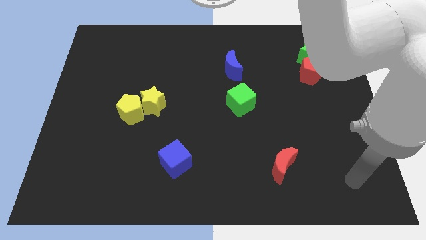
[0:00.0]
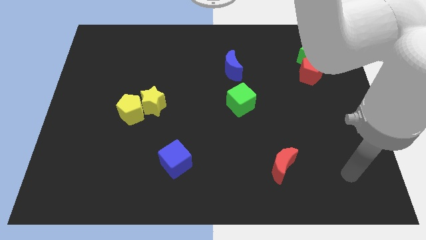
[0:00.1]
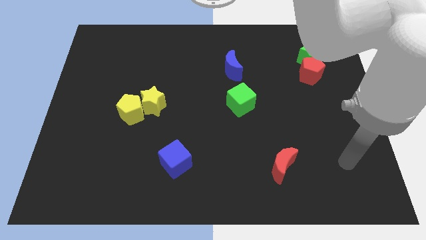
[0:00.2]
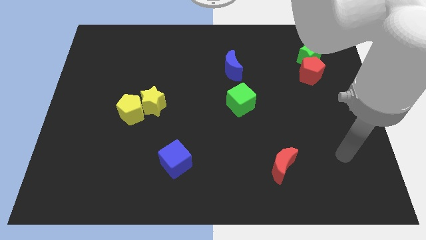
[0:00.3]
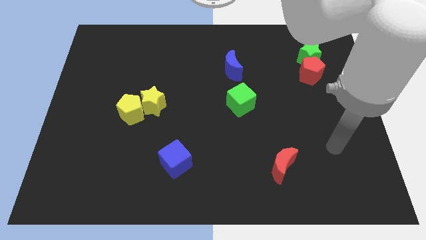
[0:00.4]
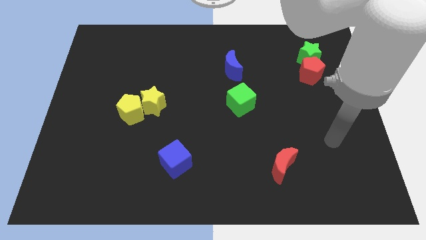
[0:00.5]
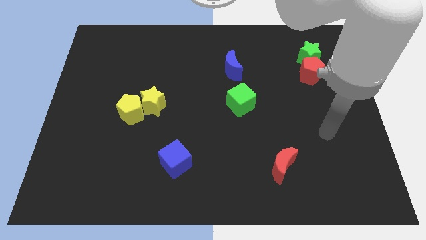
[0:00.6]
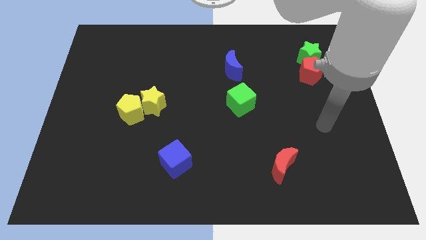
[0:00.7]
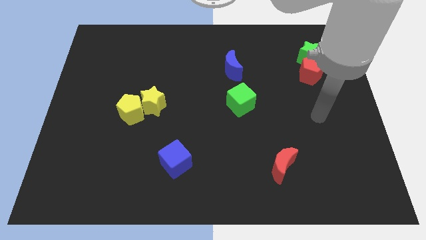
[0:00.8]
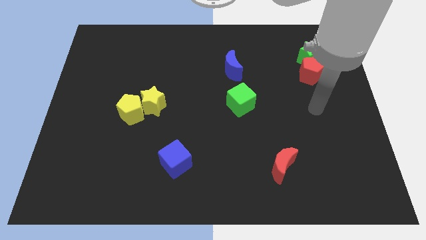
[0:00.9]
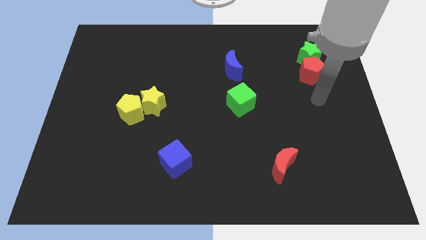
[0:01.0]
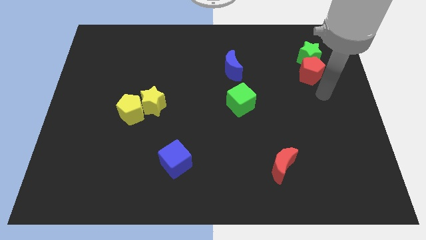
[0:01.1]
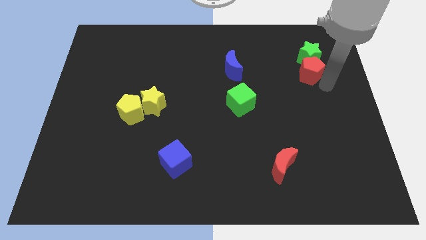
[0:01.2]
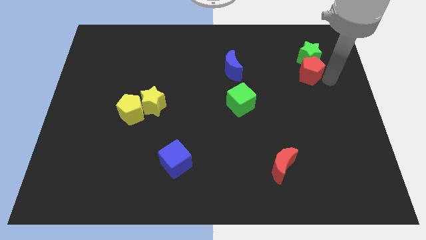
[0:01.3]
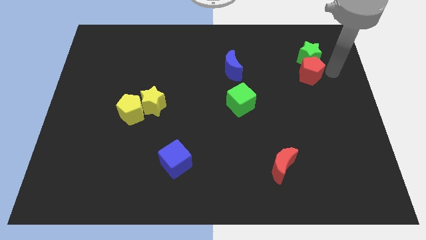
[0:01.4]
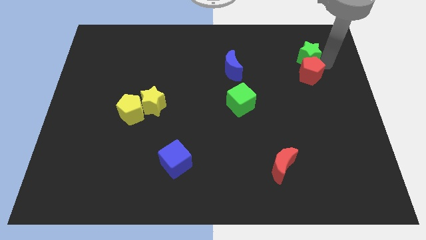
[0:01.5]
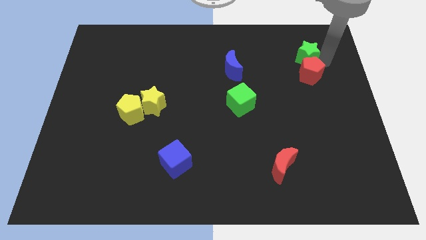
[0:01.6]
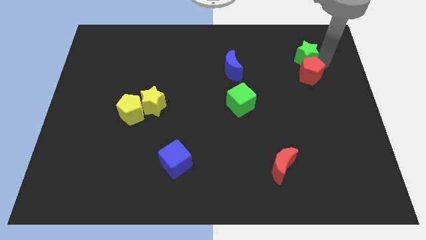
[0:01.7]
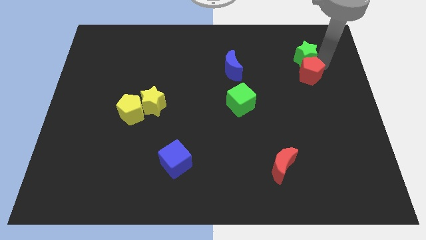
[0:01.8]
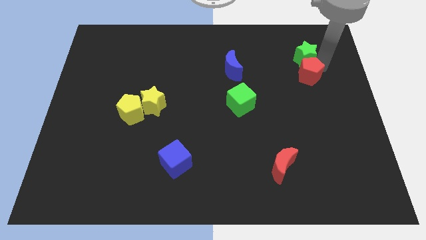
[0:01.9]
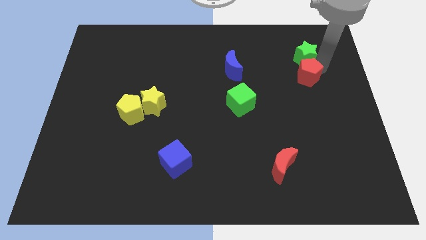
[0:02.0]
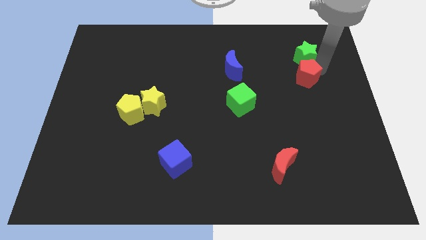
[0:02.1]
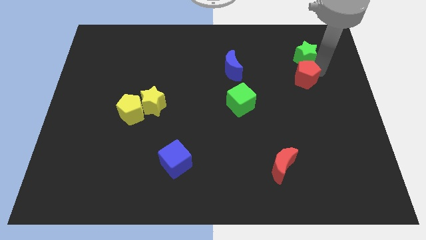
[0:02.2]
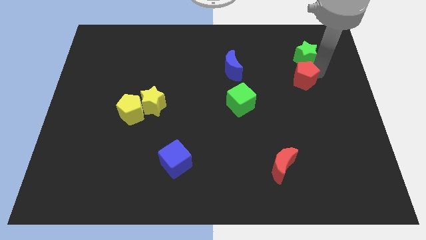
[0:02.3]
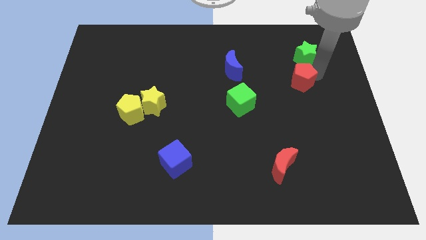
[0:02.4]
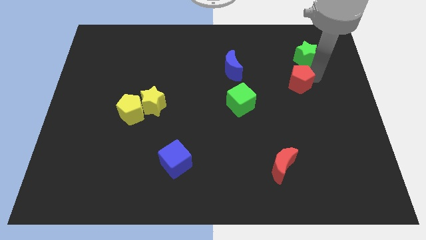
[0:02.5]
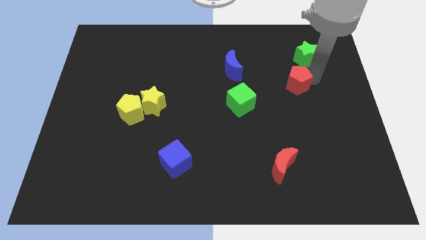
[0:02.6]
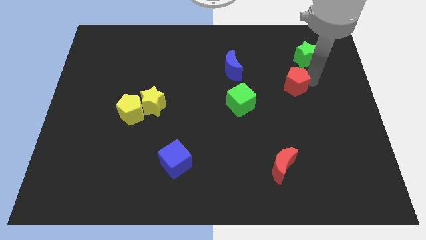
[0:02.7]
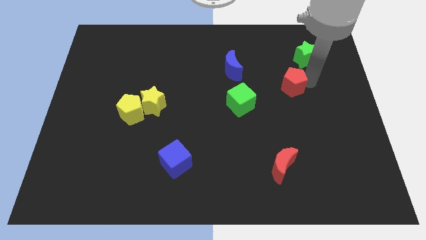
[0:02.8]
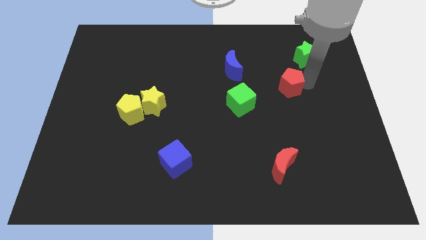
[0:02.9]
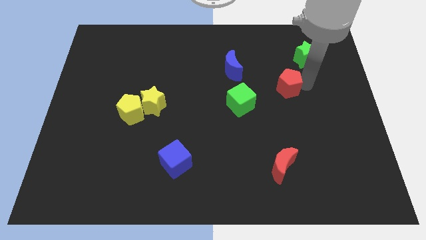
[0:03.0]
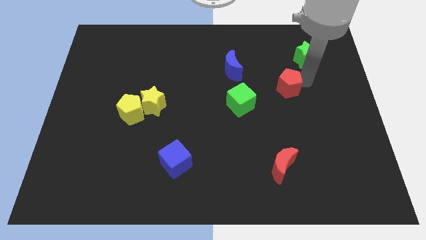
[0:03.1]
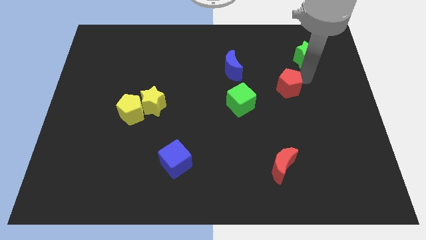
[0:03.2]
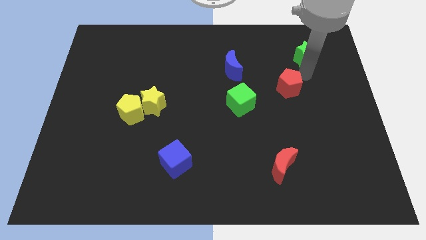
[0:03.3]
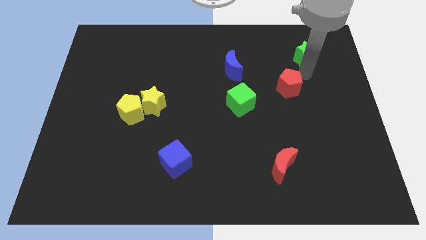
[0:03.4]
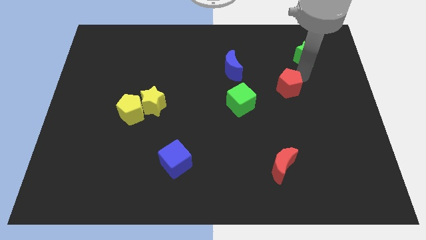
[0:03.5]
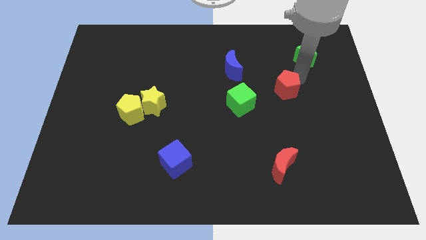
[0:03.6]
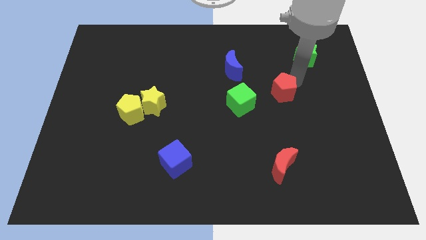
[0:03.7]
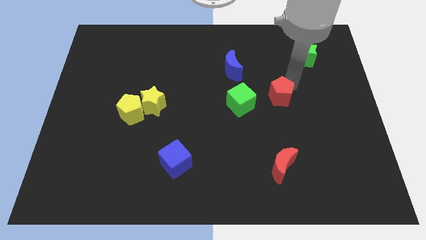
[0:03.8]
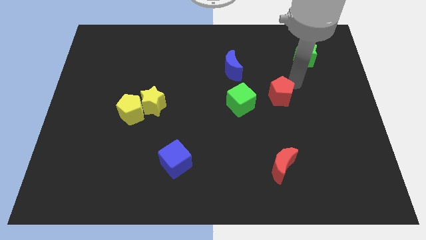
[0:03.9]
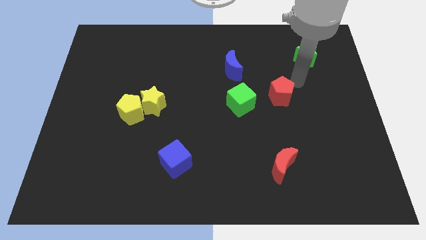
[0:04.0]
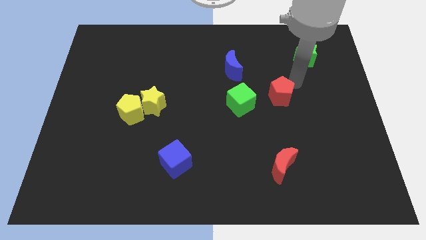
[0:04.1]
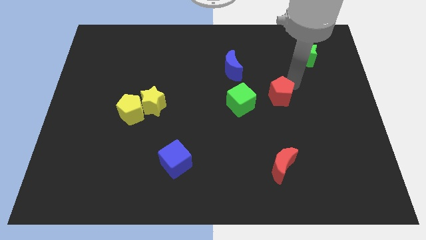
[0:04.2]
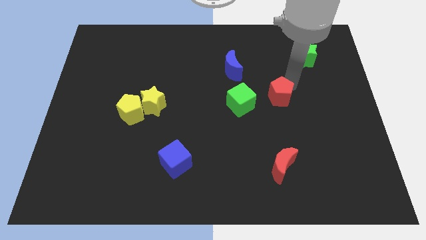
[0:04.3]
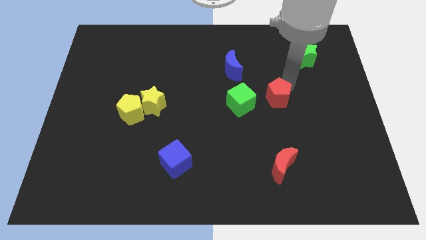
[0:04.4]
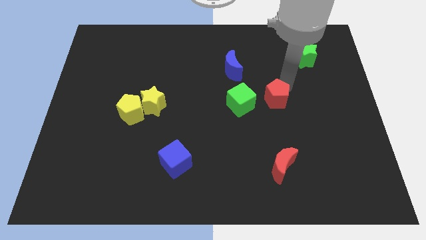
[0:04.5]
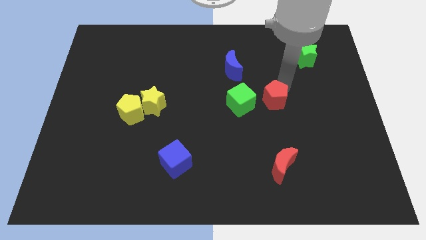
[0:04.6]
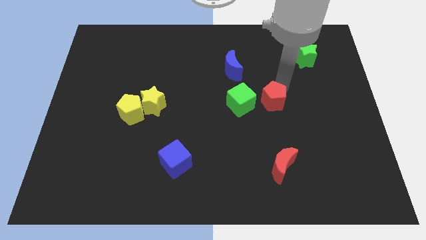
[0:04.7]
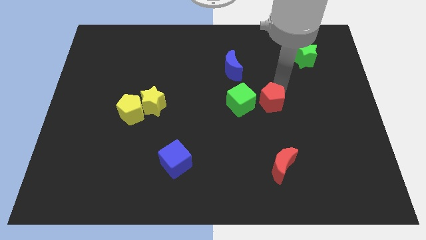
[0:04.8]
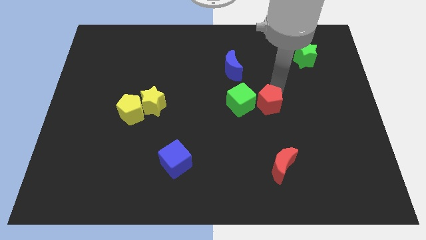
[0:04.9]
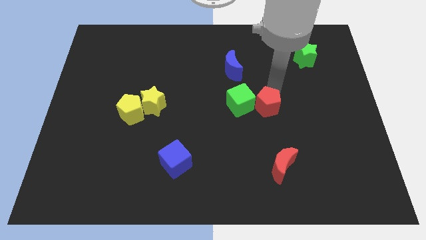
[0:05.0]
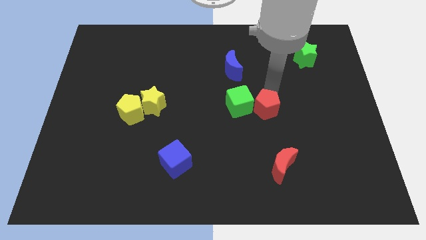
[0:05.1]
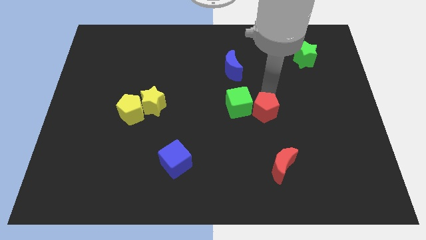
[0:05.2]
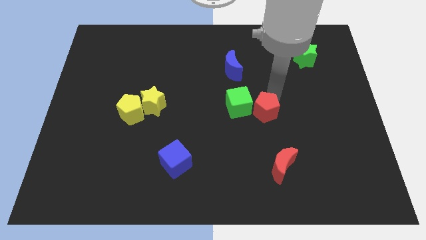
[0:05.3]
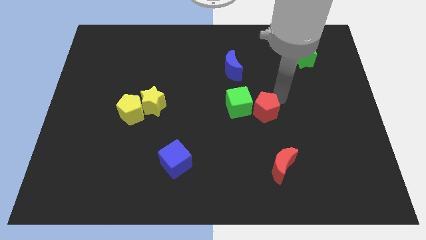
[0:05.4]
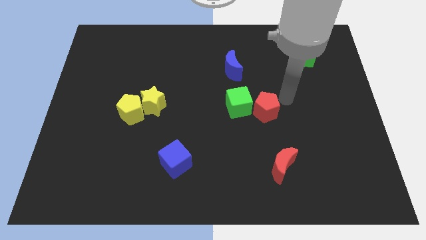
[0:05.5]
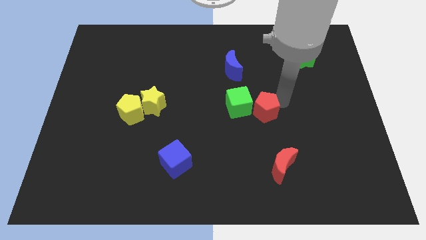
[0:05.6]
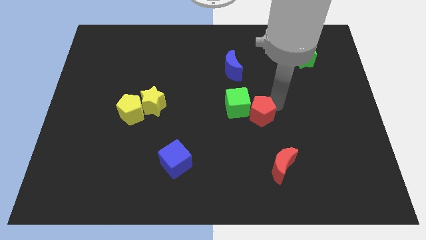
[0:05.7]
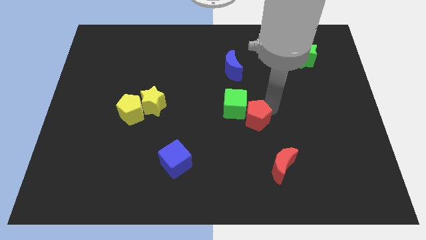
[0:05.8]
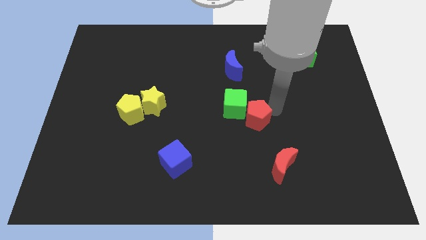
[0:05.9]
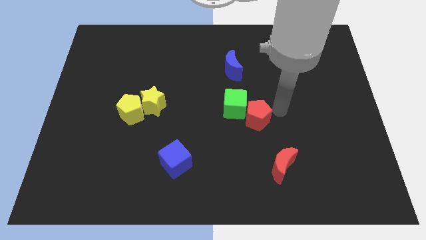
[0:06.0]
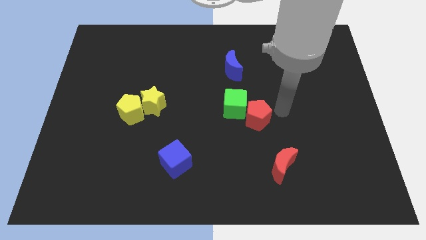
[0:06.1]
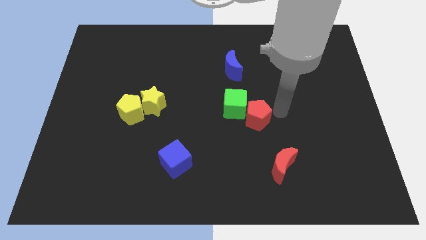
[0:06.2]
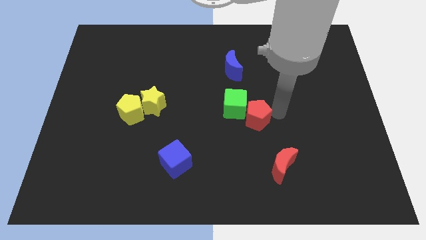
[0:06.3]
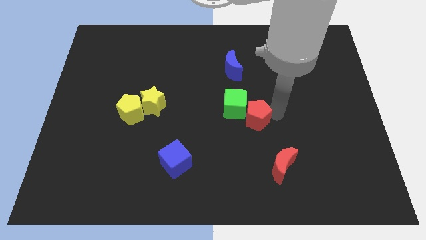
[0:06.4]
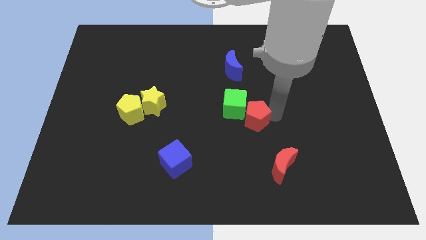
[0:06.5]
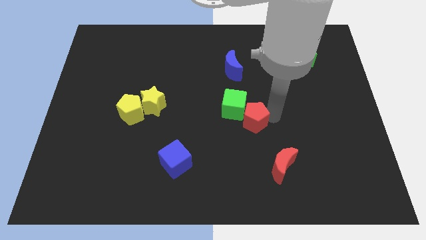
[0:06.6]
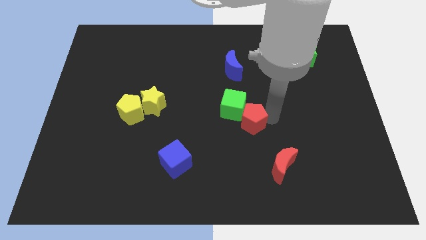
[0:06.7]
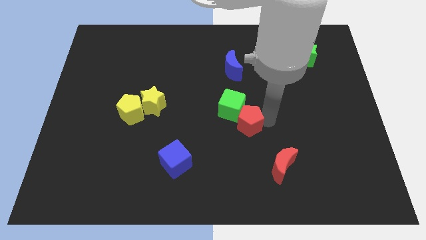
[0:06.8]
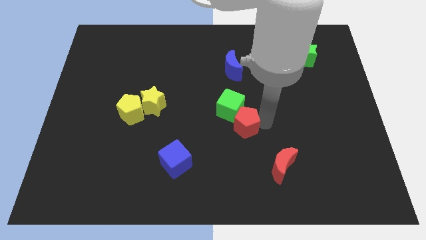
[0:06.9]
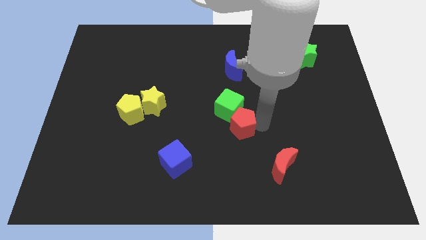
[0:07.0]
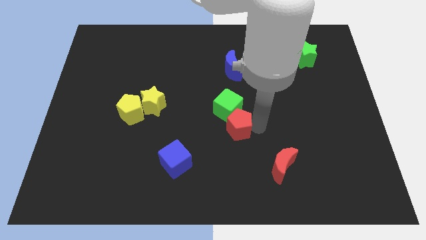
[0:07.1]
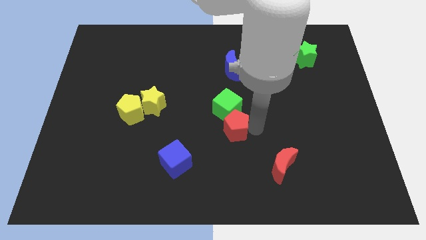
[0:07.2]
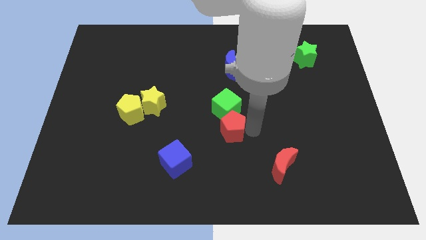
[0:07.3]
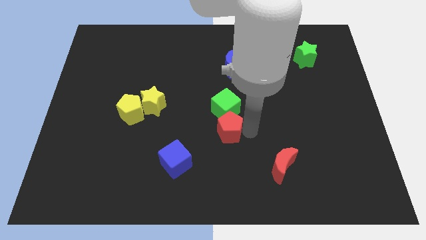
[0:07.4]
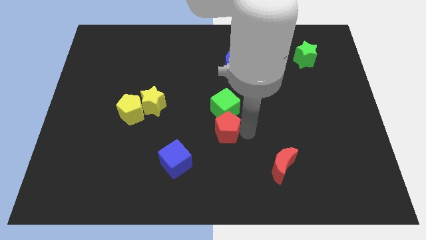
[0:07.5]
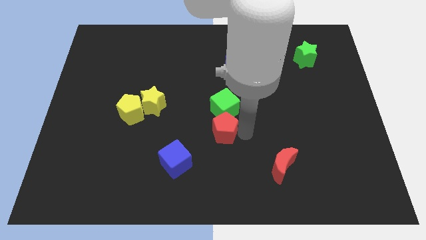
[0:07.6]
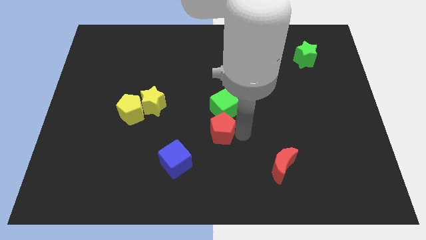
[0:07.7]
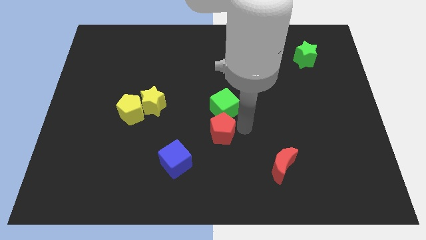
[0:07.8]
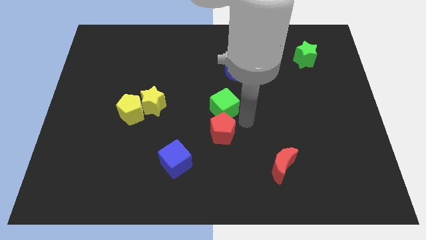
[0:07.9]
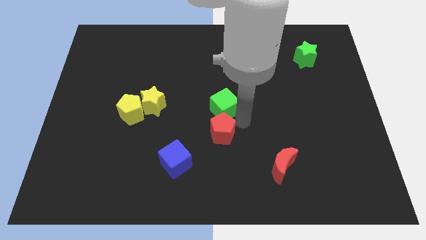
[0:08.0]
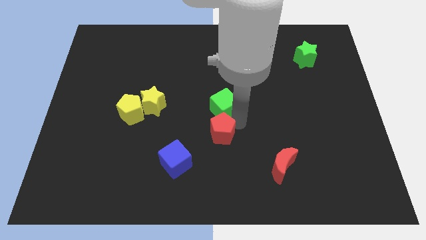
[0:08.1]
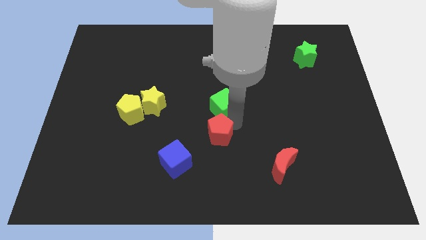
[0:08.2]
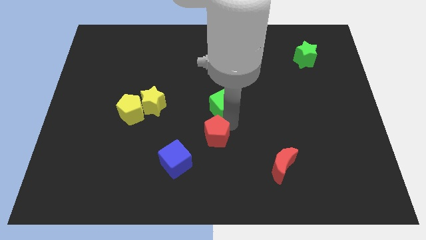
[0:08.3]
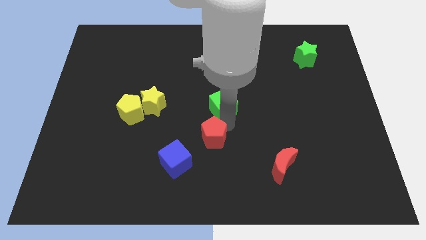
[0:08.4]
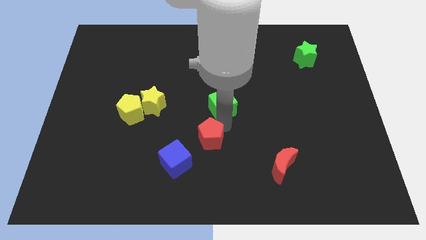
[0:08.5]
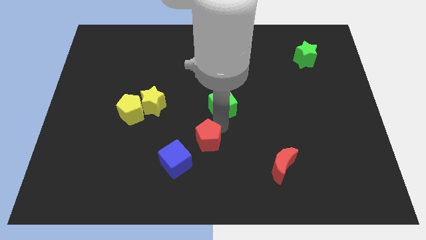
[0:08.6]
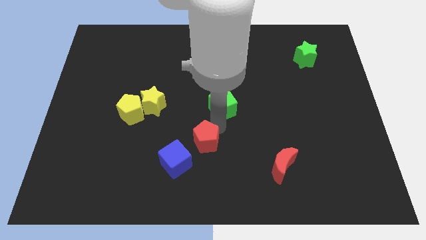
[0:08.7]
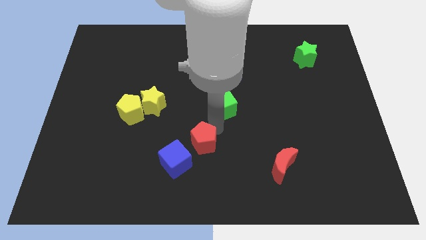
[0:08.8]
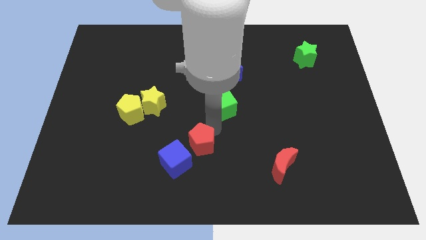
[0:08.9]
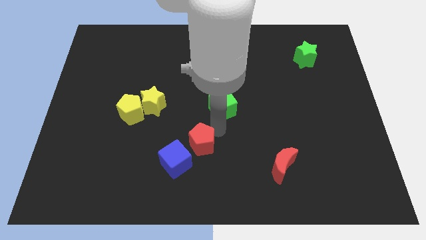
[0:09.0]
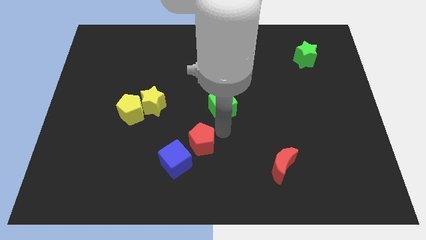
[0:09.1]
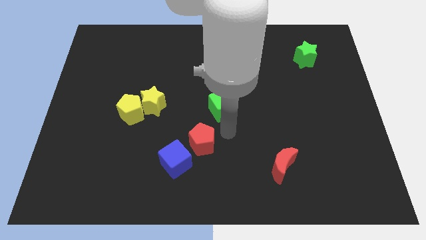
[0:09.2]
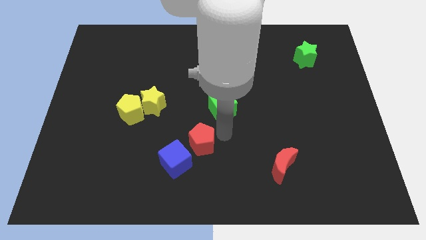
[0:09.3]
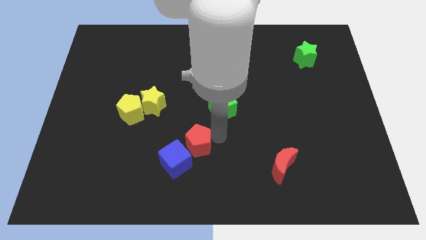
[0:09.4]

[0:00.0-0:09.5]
slide the red pentagon close to the blue cube
